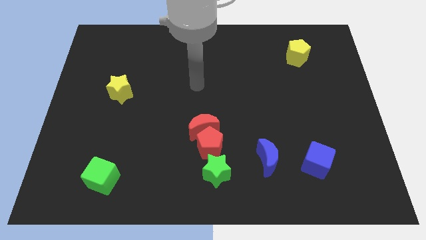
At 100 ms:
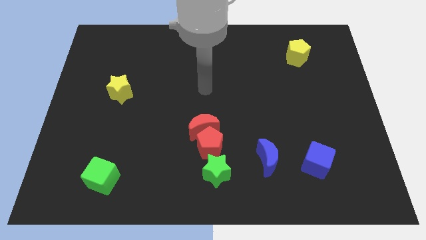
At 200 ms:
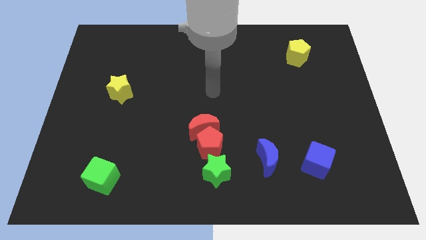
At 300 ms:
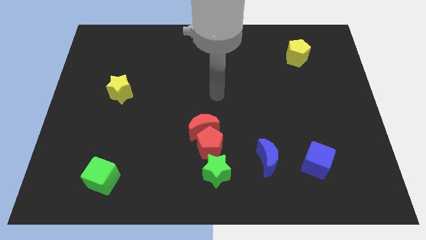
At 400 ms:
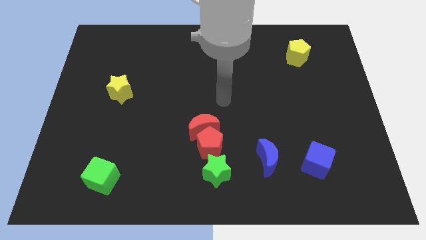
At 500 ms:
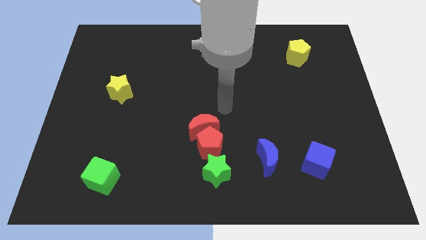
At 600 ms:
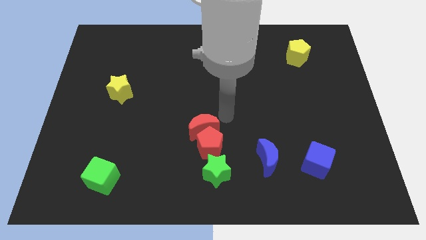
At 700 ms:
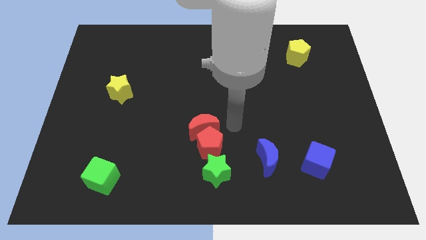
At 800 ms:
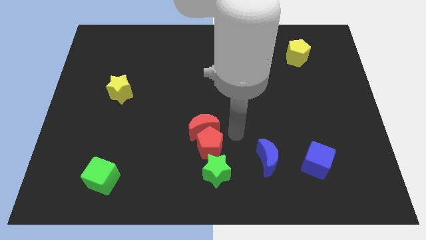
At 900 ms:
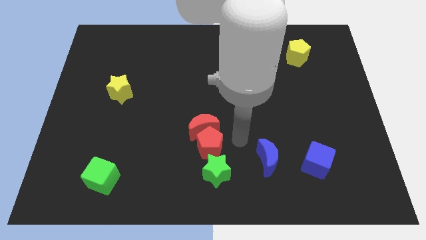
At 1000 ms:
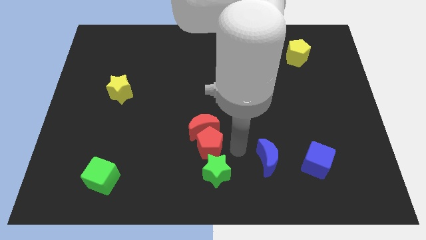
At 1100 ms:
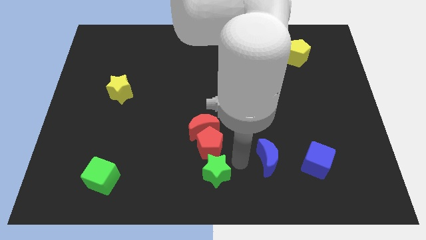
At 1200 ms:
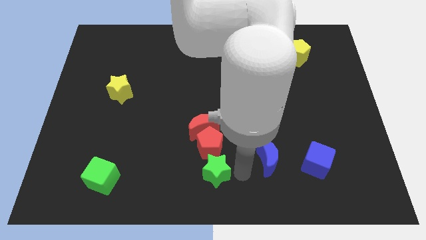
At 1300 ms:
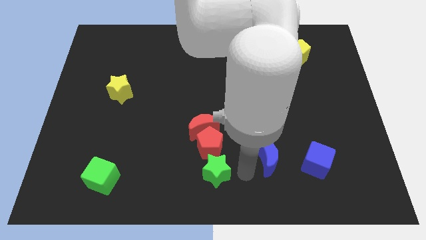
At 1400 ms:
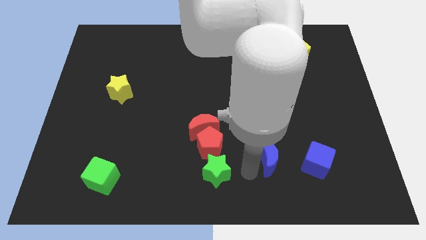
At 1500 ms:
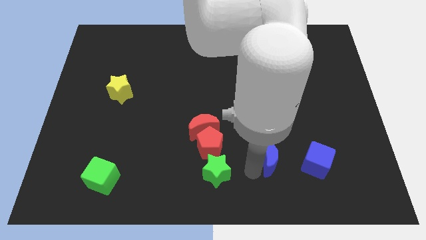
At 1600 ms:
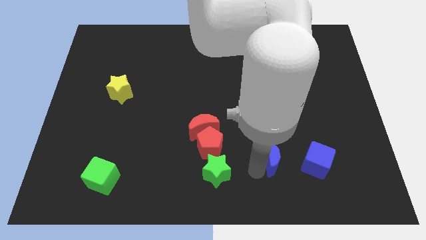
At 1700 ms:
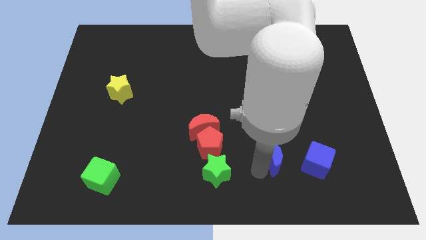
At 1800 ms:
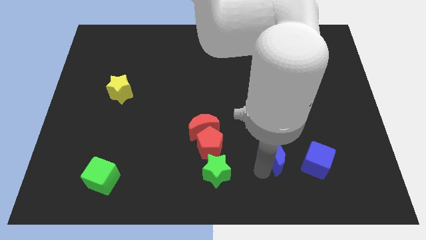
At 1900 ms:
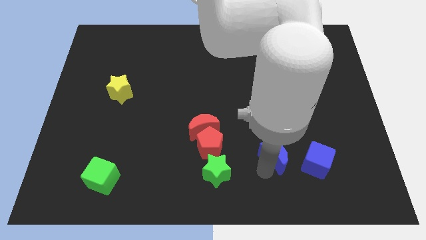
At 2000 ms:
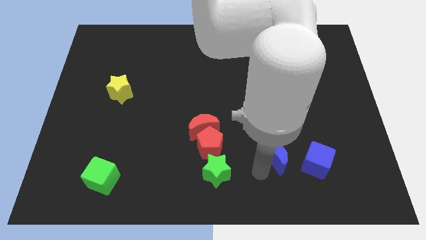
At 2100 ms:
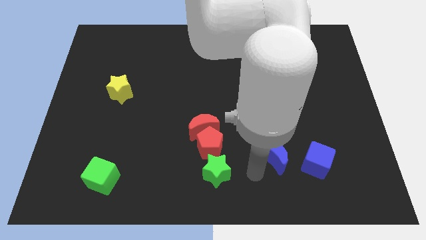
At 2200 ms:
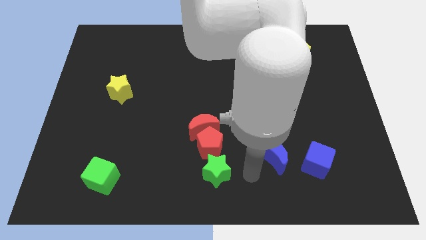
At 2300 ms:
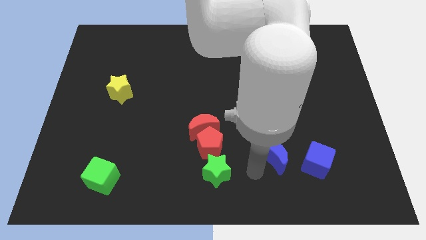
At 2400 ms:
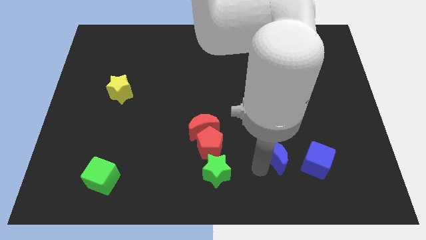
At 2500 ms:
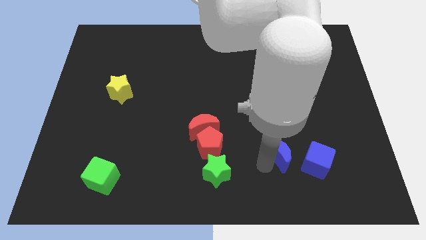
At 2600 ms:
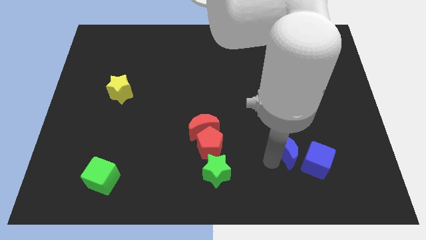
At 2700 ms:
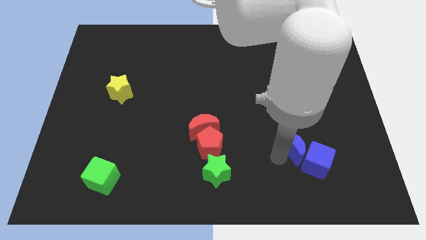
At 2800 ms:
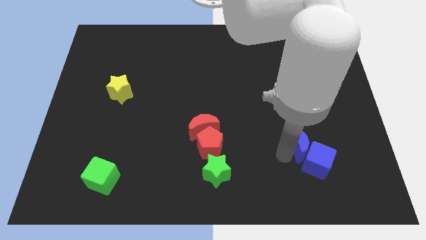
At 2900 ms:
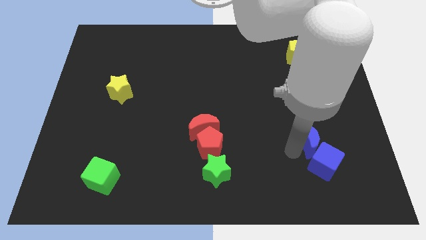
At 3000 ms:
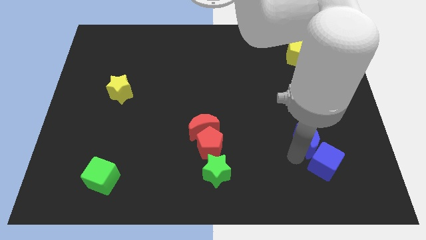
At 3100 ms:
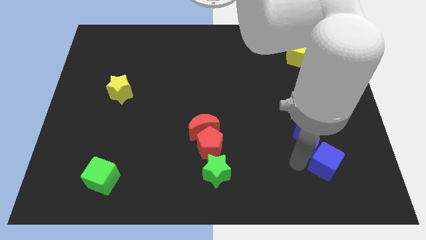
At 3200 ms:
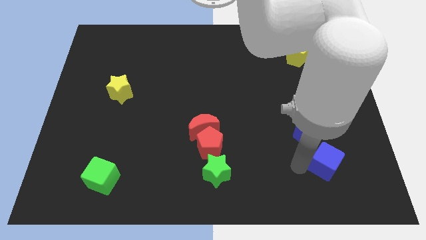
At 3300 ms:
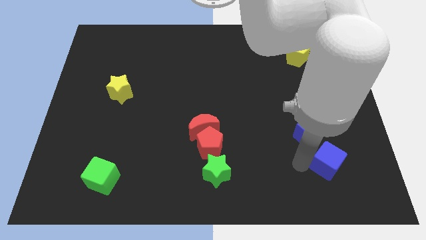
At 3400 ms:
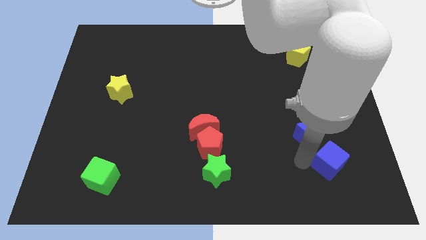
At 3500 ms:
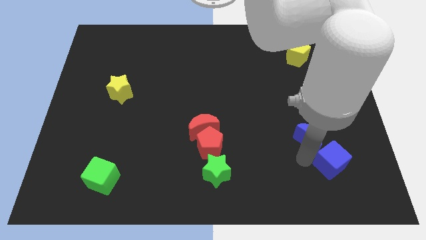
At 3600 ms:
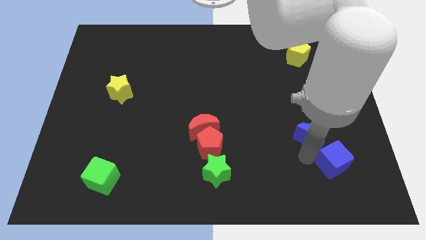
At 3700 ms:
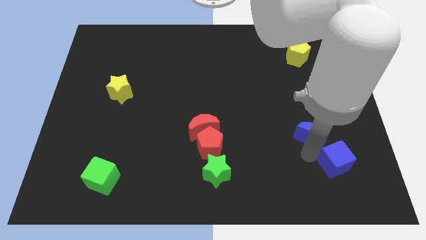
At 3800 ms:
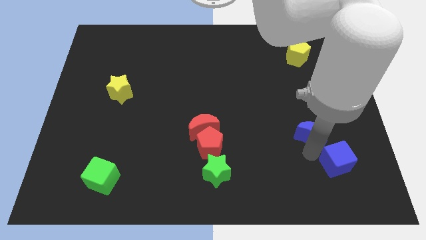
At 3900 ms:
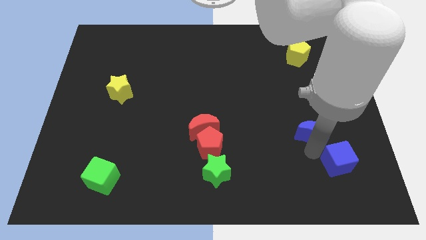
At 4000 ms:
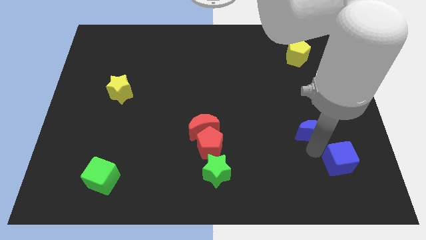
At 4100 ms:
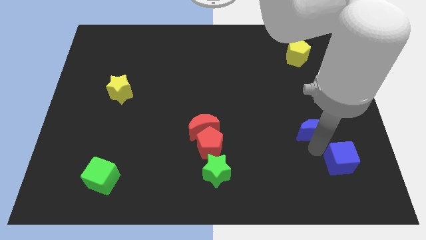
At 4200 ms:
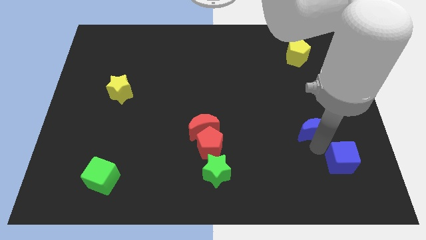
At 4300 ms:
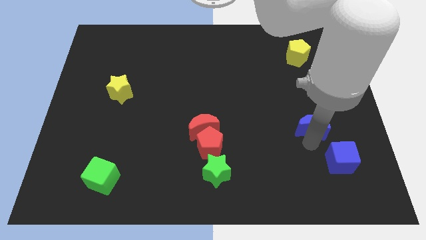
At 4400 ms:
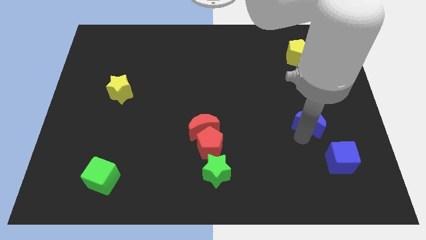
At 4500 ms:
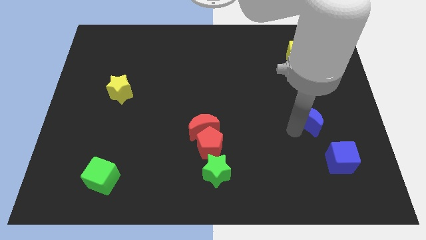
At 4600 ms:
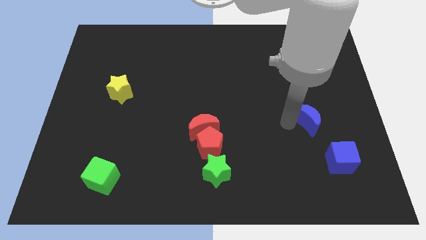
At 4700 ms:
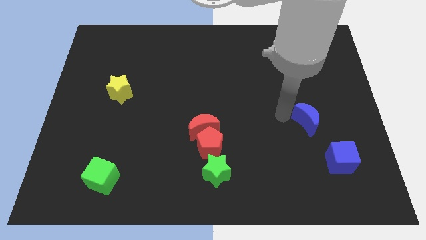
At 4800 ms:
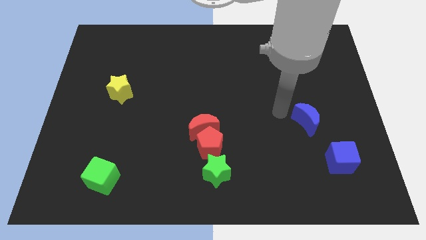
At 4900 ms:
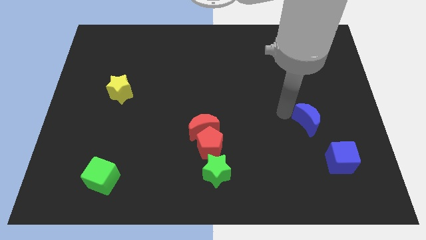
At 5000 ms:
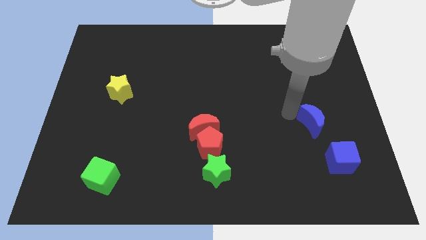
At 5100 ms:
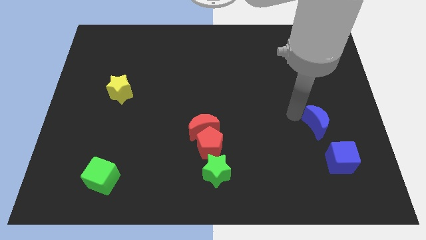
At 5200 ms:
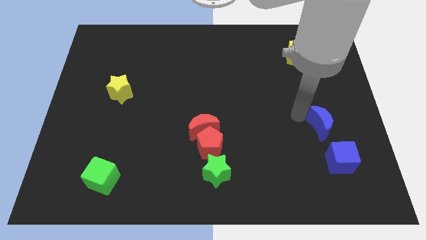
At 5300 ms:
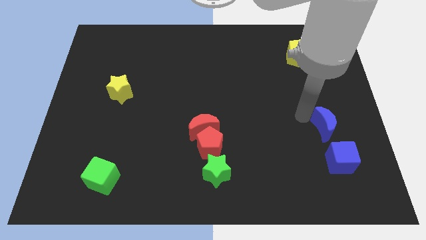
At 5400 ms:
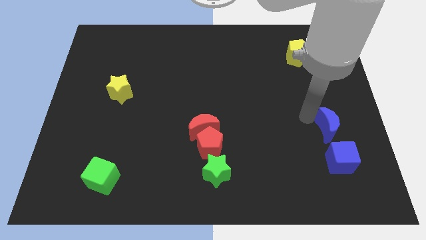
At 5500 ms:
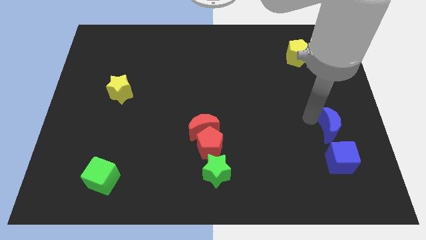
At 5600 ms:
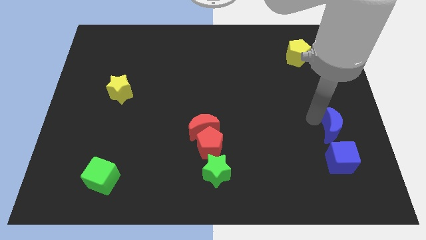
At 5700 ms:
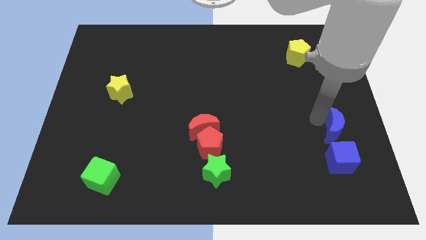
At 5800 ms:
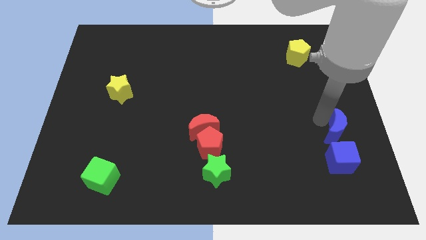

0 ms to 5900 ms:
slide the blue moon to the top right of the blue cube
